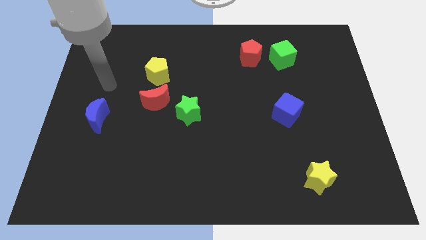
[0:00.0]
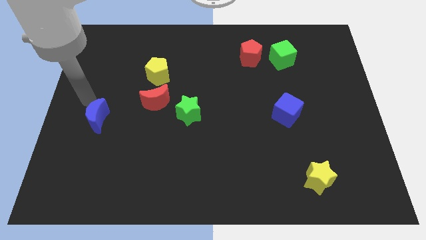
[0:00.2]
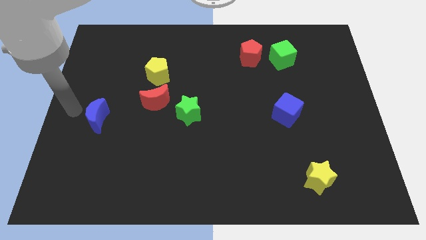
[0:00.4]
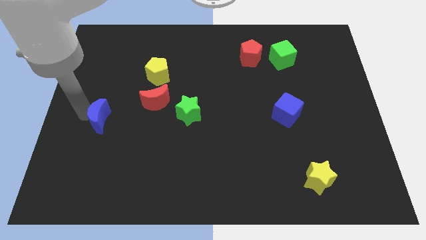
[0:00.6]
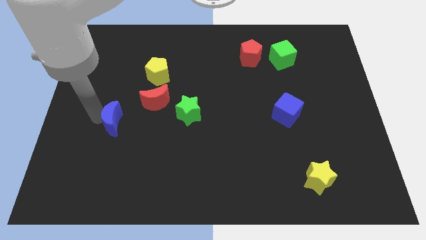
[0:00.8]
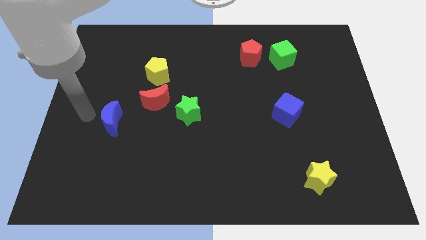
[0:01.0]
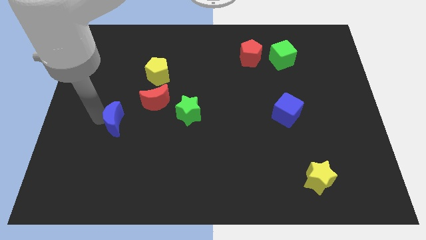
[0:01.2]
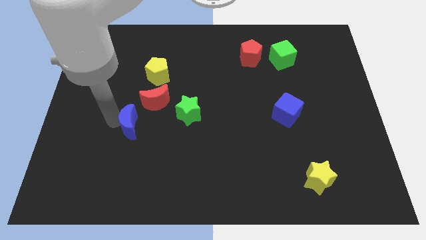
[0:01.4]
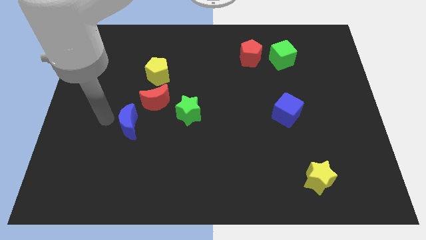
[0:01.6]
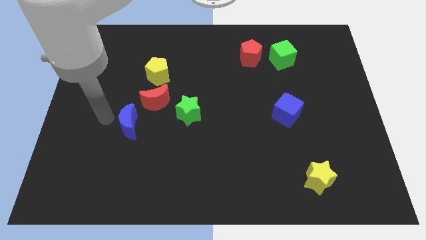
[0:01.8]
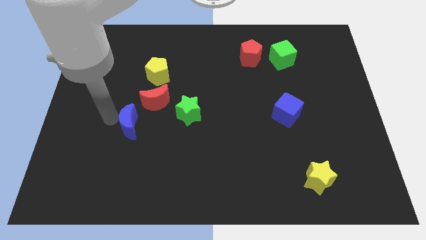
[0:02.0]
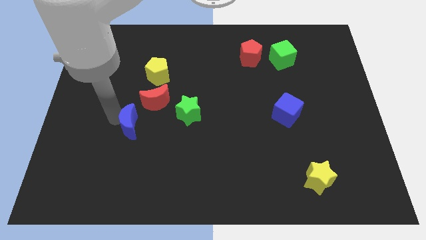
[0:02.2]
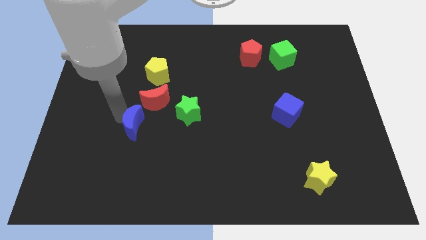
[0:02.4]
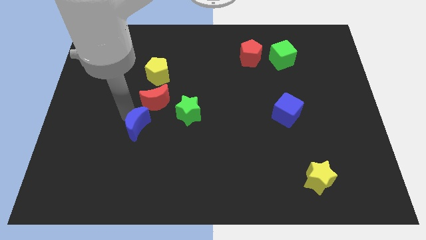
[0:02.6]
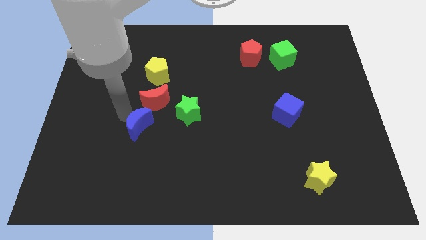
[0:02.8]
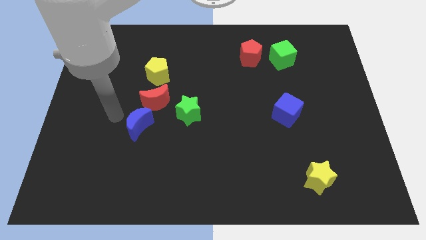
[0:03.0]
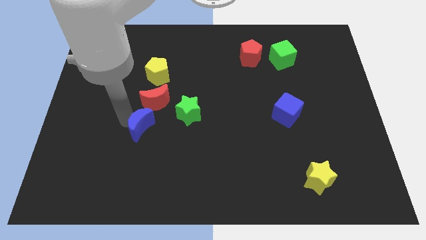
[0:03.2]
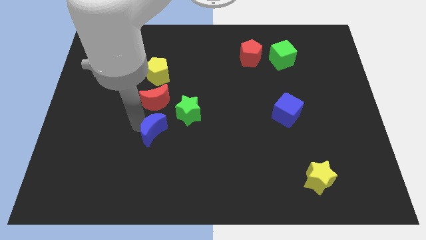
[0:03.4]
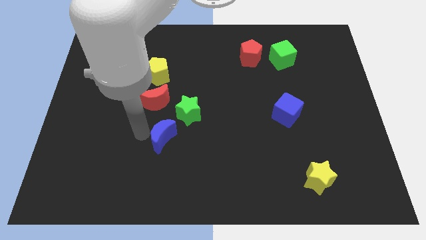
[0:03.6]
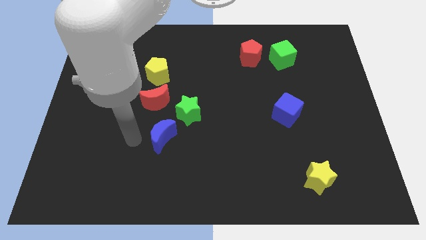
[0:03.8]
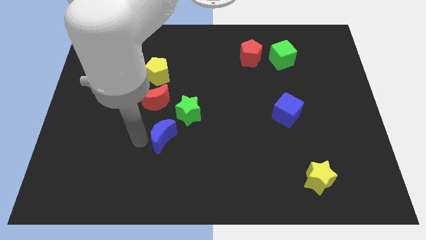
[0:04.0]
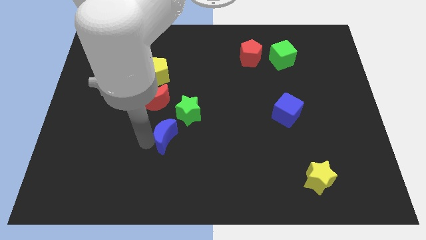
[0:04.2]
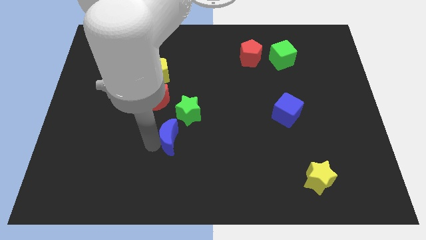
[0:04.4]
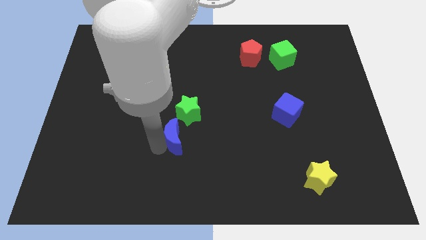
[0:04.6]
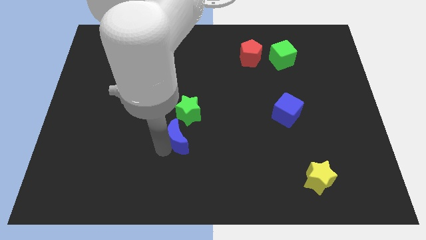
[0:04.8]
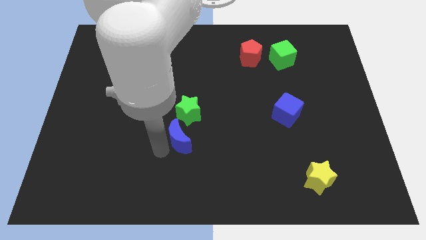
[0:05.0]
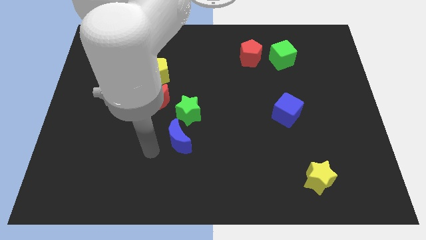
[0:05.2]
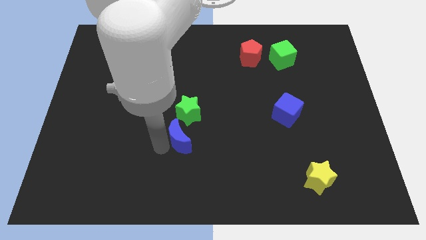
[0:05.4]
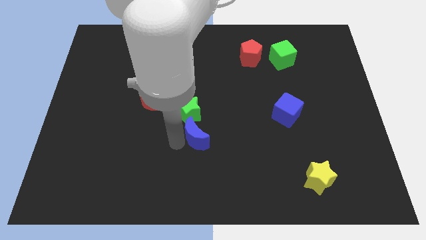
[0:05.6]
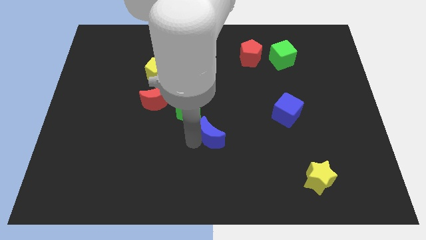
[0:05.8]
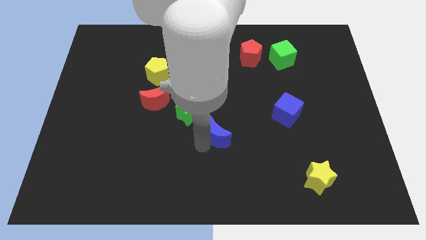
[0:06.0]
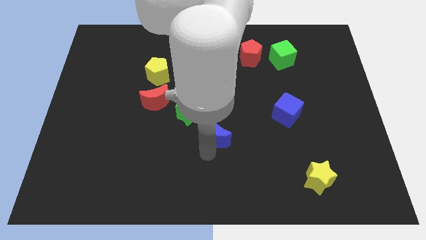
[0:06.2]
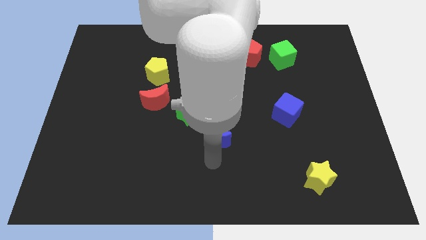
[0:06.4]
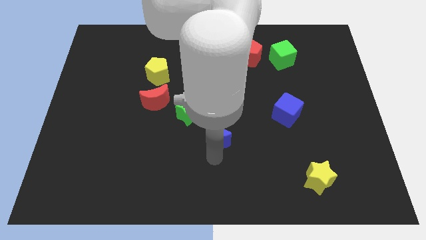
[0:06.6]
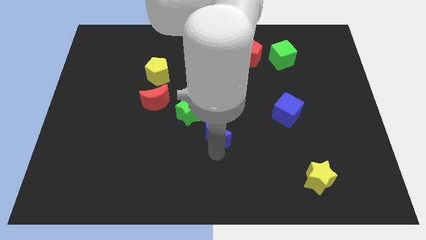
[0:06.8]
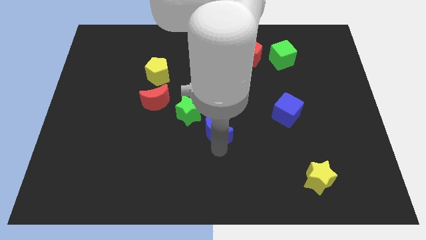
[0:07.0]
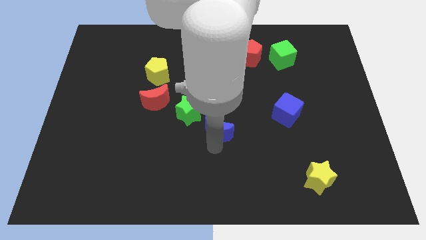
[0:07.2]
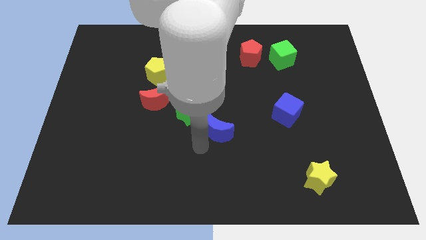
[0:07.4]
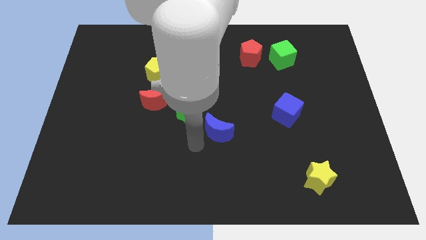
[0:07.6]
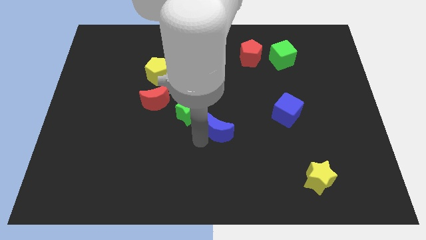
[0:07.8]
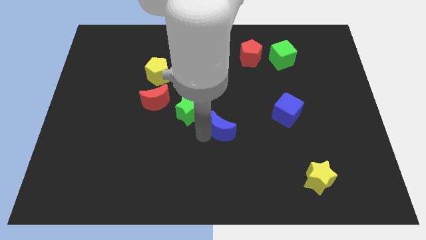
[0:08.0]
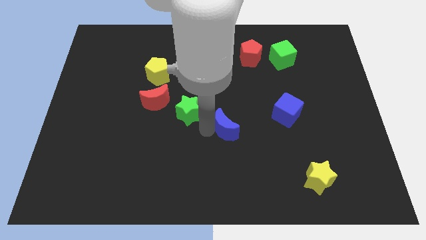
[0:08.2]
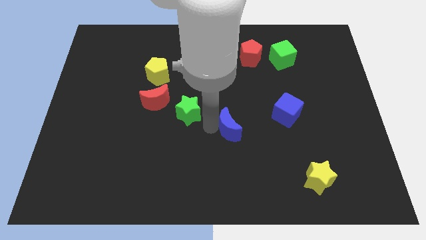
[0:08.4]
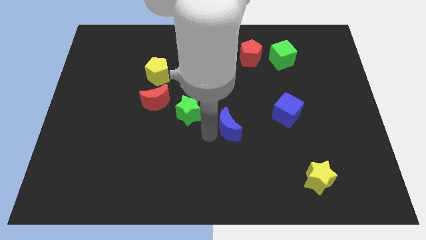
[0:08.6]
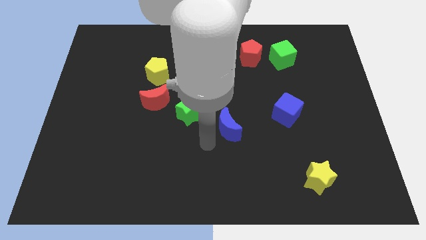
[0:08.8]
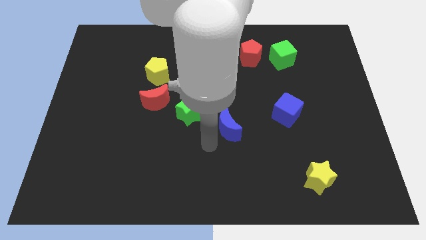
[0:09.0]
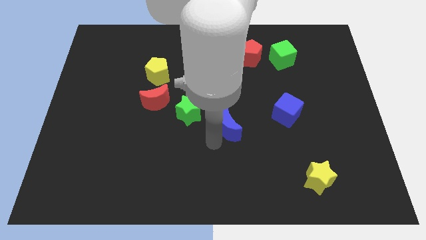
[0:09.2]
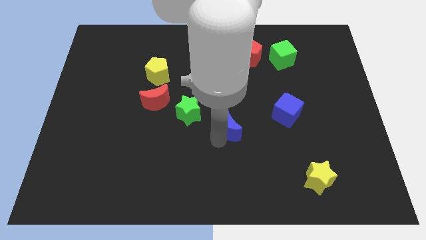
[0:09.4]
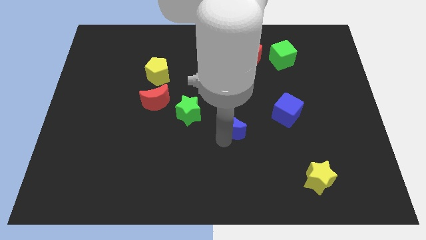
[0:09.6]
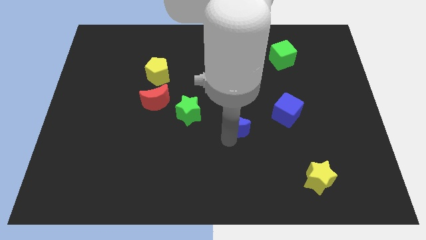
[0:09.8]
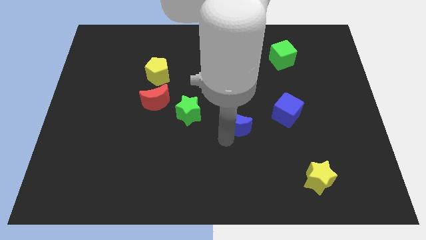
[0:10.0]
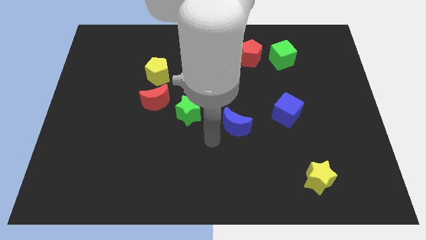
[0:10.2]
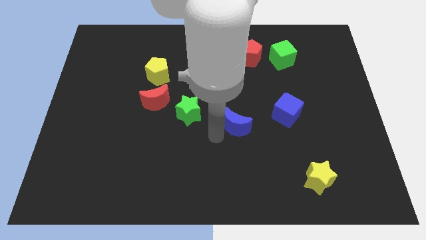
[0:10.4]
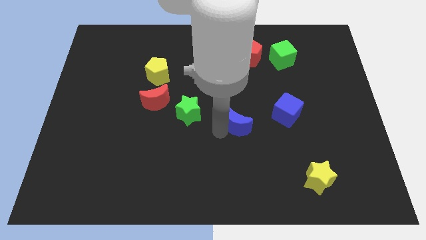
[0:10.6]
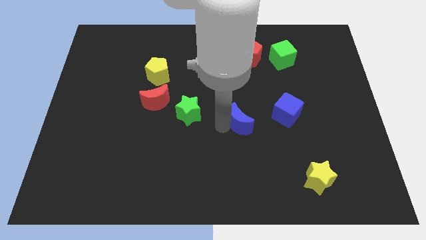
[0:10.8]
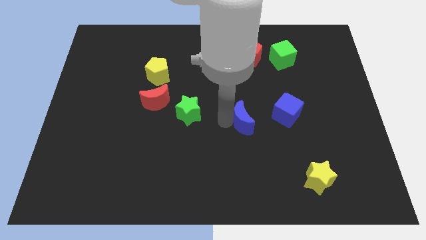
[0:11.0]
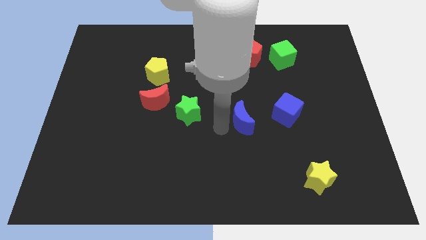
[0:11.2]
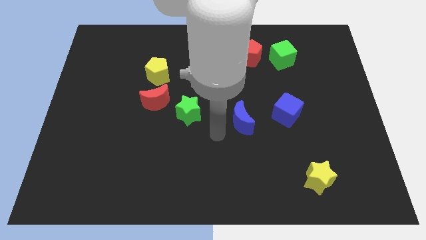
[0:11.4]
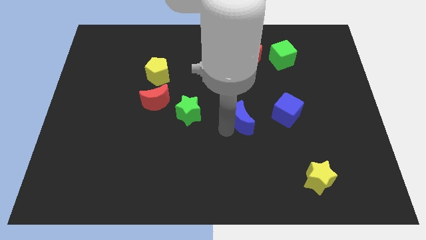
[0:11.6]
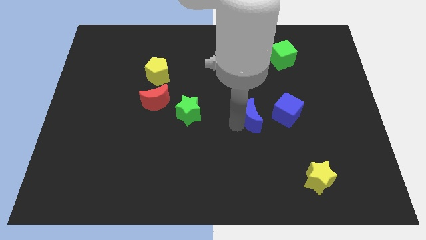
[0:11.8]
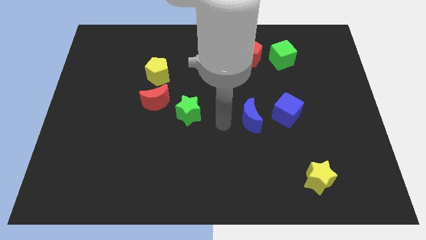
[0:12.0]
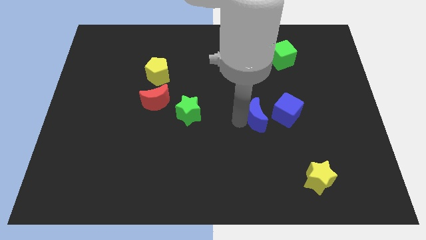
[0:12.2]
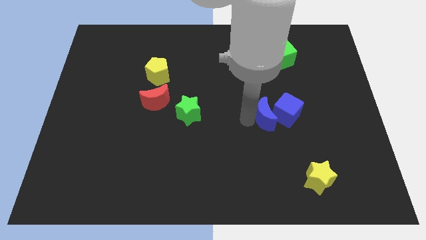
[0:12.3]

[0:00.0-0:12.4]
slide the blue moon next to the blue cube

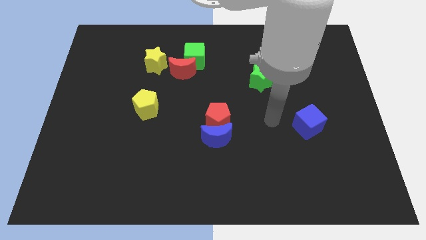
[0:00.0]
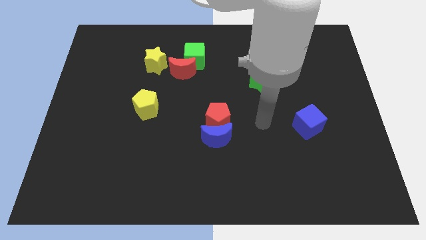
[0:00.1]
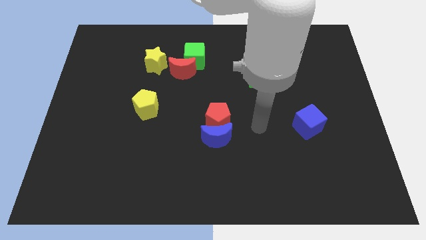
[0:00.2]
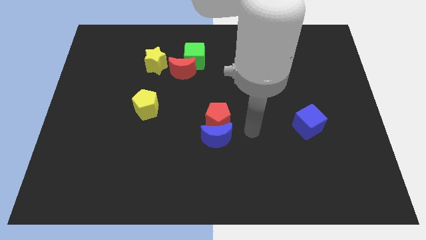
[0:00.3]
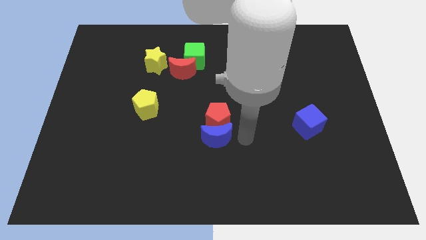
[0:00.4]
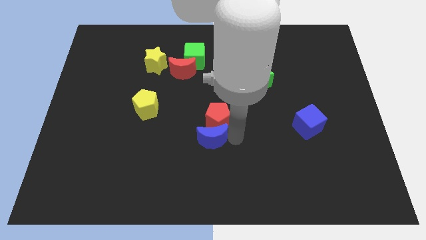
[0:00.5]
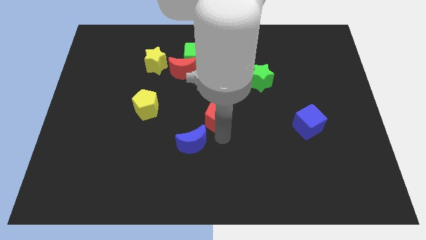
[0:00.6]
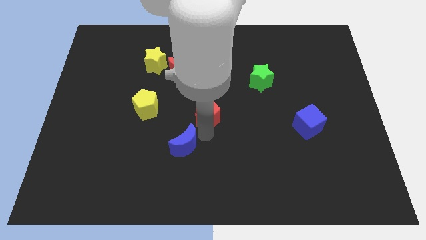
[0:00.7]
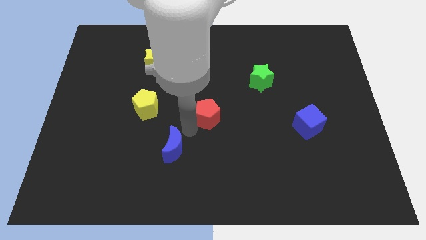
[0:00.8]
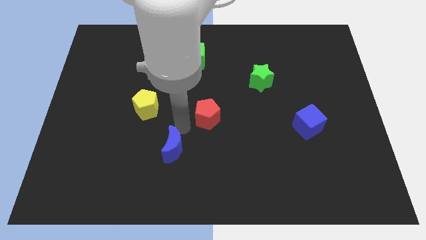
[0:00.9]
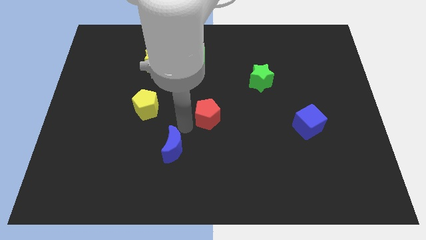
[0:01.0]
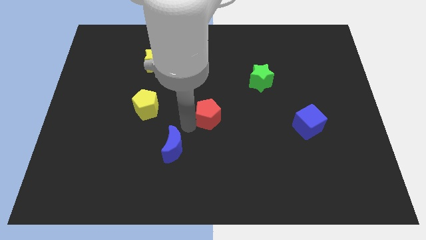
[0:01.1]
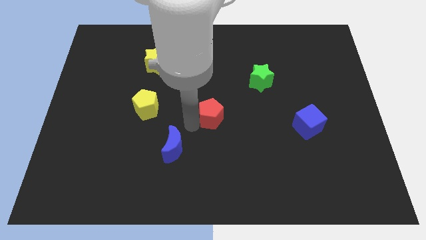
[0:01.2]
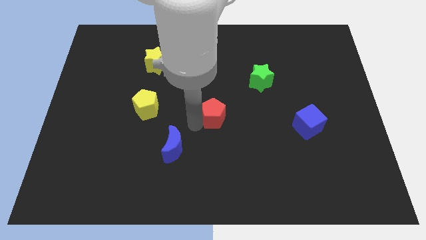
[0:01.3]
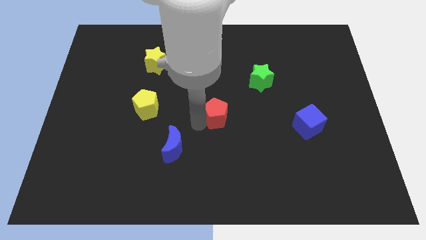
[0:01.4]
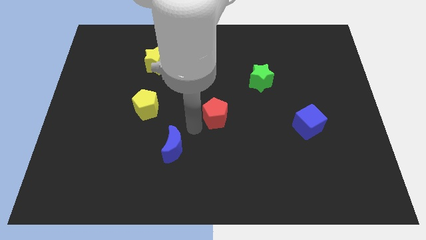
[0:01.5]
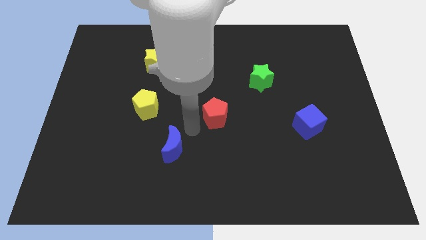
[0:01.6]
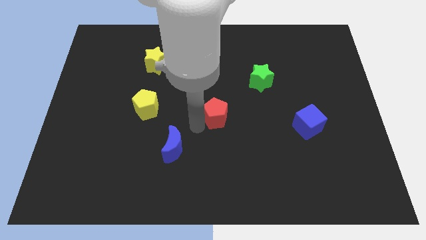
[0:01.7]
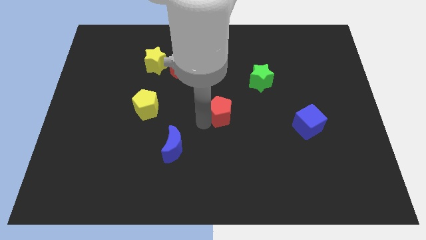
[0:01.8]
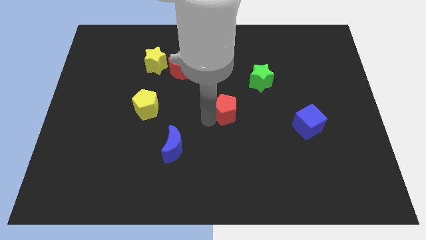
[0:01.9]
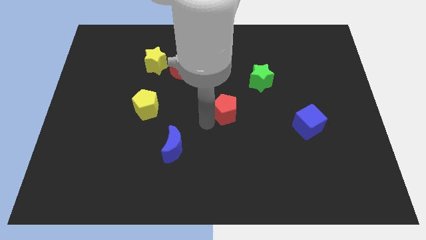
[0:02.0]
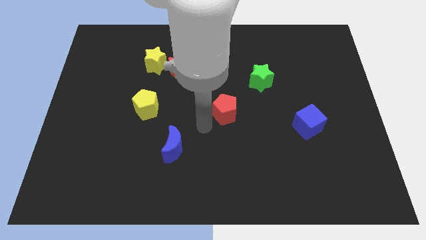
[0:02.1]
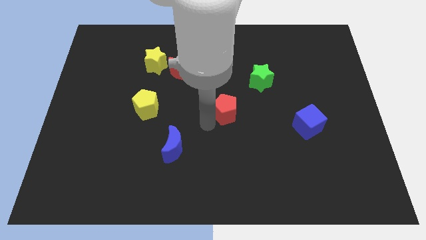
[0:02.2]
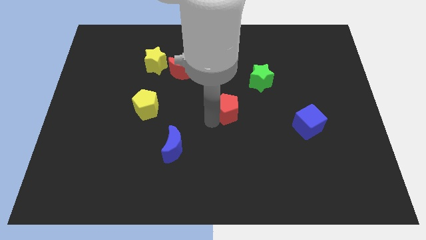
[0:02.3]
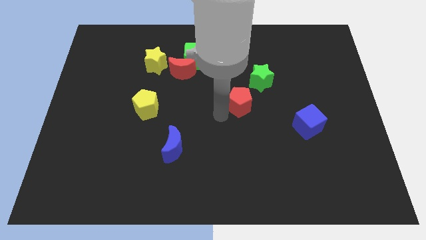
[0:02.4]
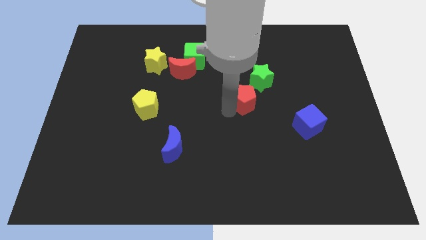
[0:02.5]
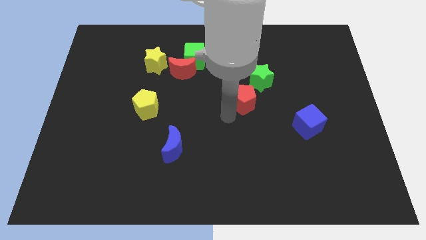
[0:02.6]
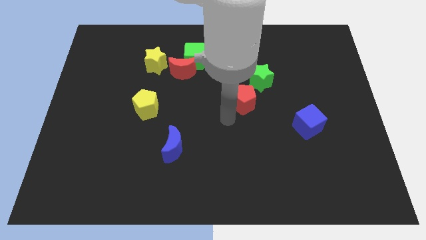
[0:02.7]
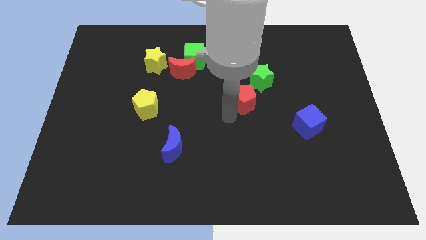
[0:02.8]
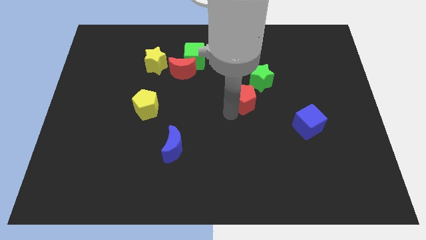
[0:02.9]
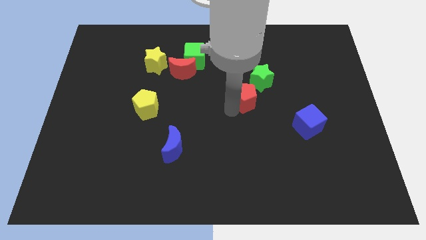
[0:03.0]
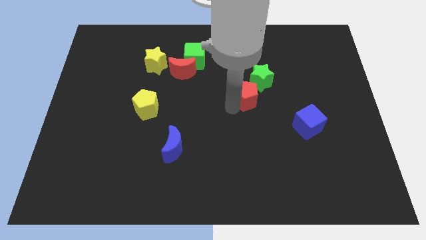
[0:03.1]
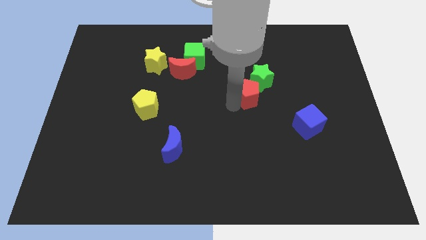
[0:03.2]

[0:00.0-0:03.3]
move the red pentagon towards the green star
